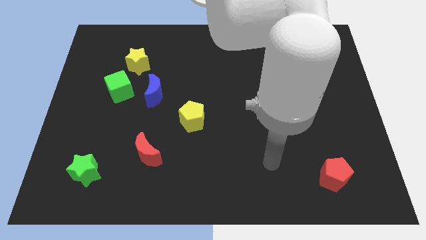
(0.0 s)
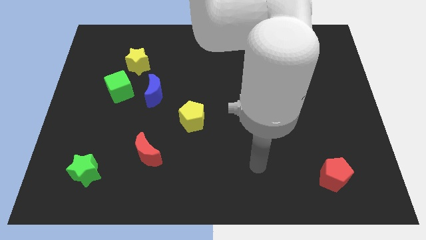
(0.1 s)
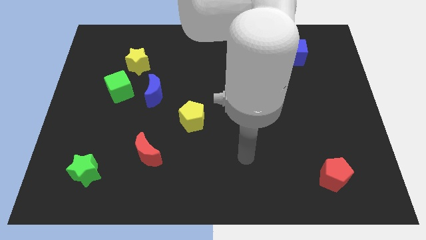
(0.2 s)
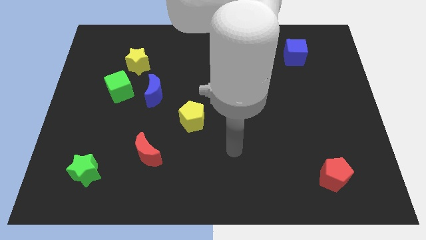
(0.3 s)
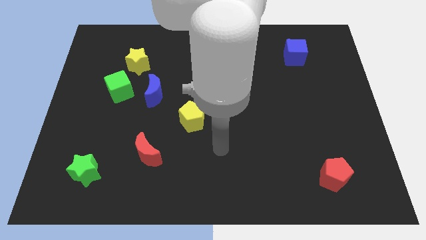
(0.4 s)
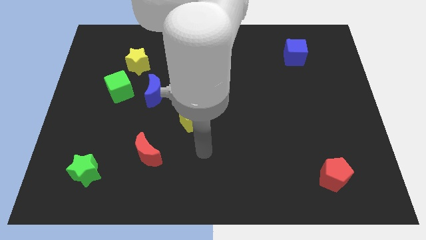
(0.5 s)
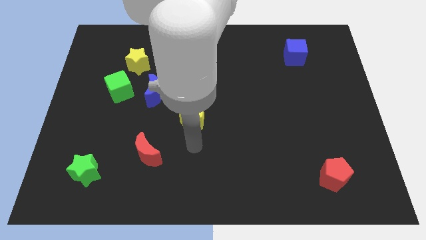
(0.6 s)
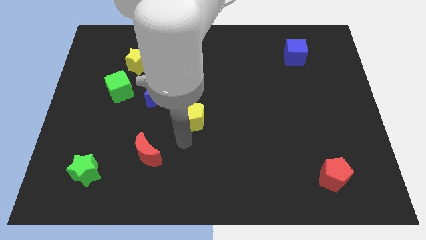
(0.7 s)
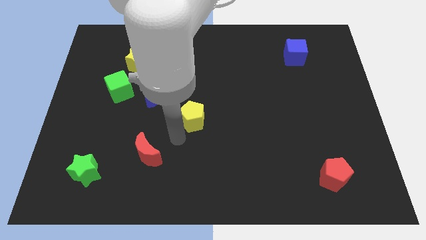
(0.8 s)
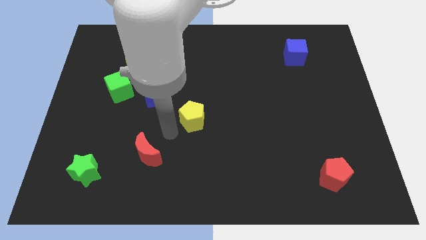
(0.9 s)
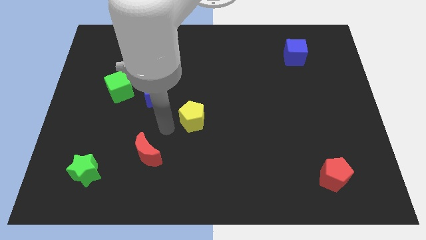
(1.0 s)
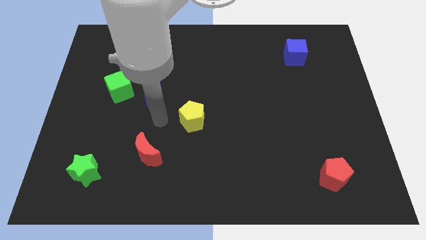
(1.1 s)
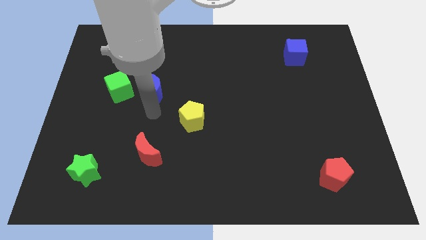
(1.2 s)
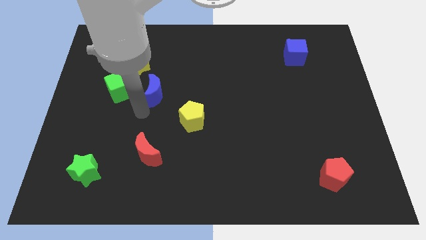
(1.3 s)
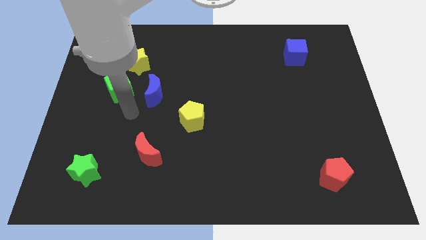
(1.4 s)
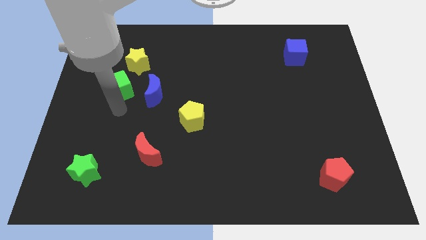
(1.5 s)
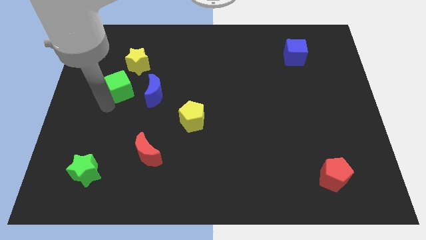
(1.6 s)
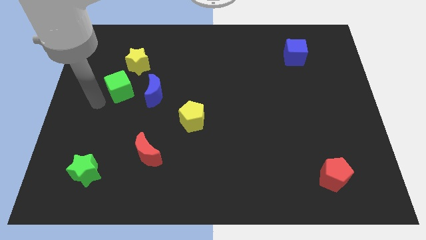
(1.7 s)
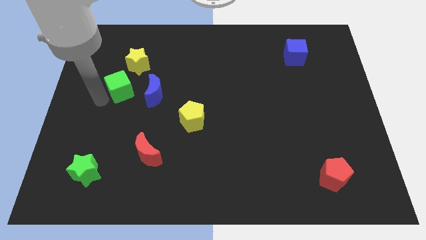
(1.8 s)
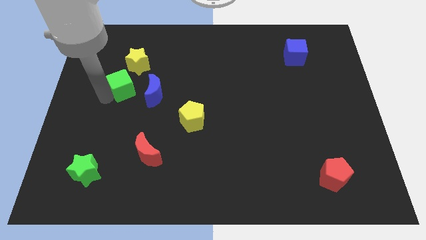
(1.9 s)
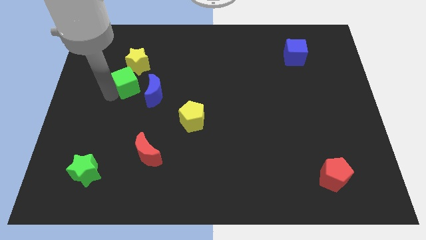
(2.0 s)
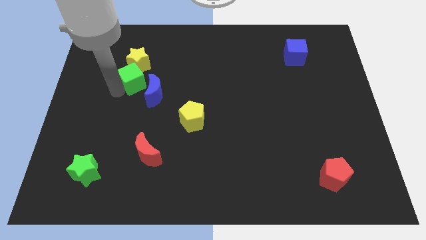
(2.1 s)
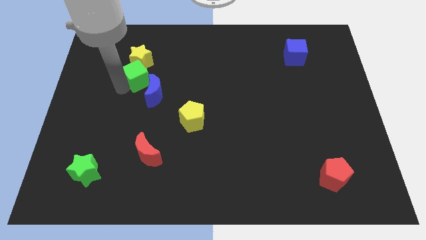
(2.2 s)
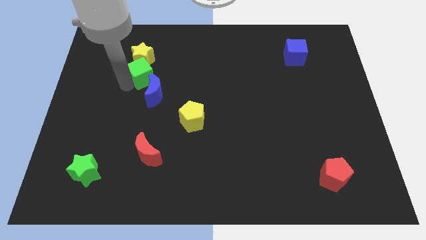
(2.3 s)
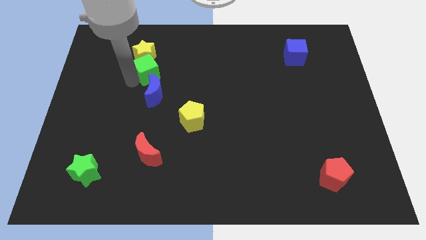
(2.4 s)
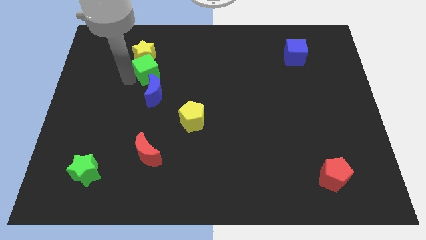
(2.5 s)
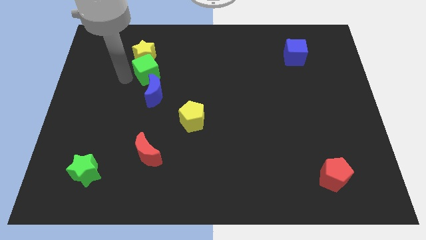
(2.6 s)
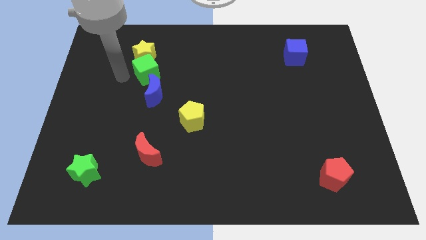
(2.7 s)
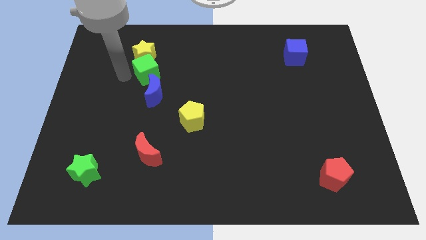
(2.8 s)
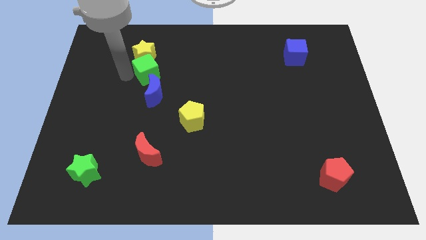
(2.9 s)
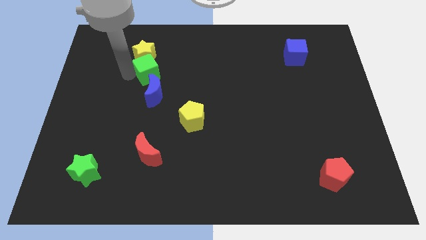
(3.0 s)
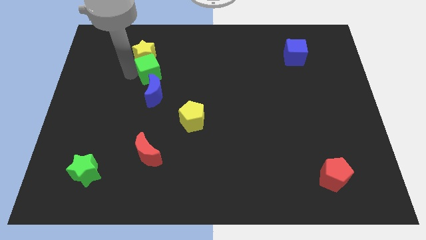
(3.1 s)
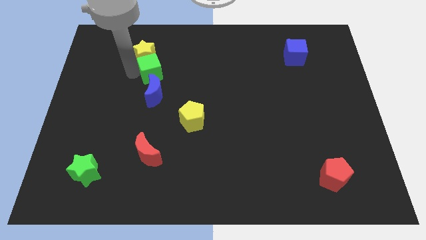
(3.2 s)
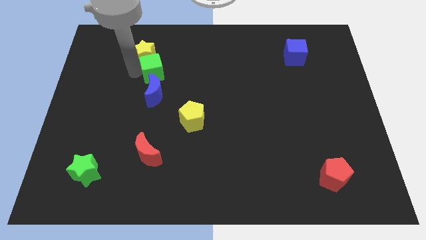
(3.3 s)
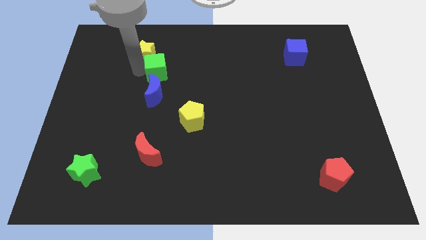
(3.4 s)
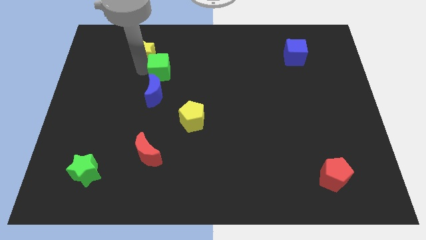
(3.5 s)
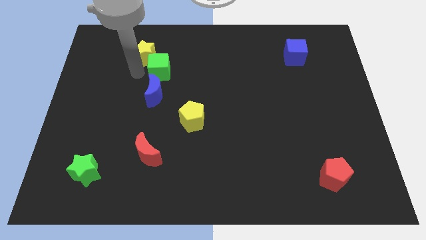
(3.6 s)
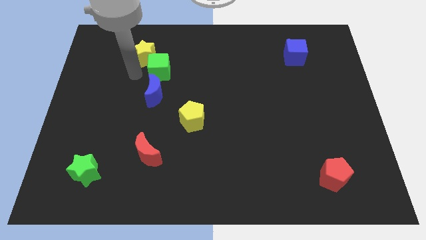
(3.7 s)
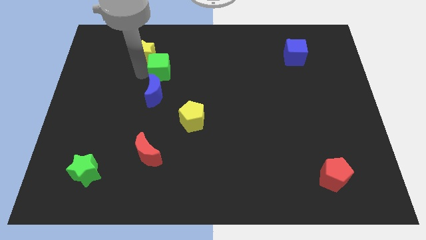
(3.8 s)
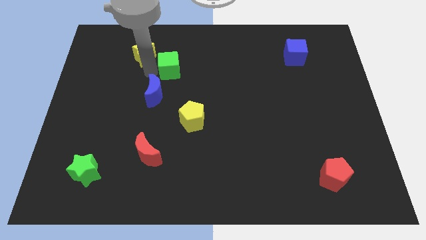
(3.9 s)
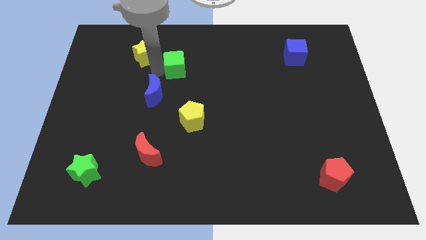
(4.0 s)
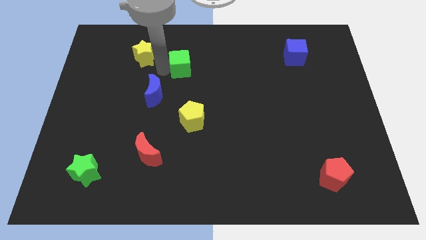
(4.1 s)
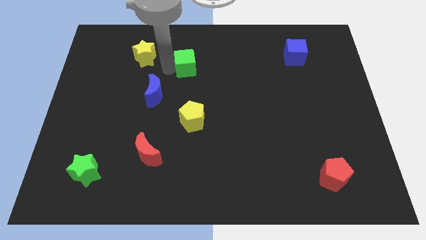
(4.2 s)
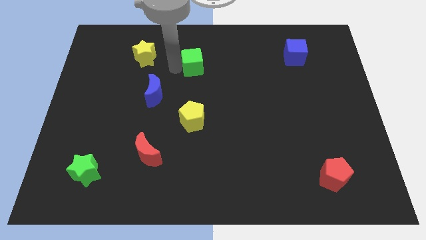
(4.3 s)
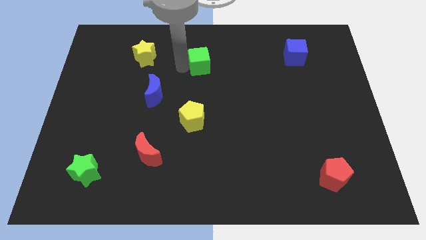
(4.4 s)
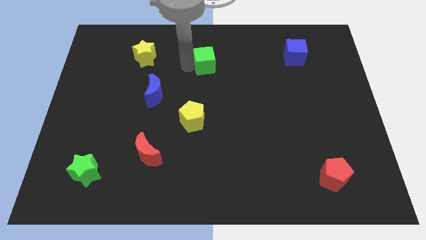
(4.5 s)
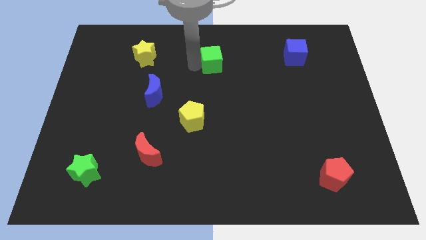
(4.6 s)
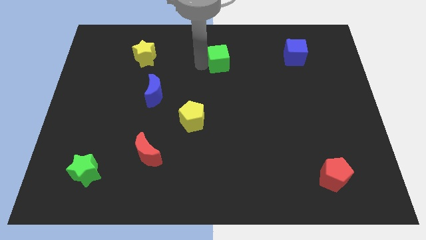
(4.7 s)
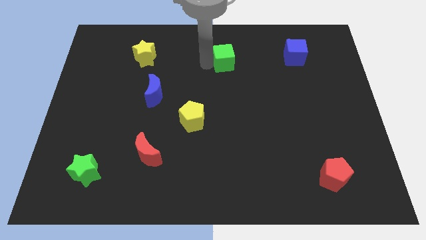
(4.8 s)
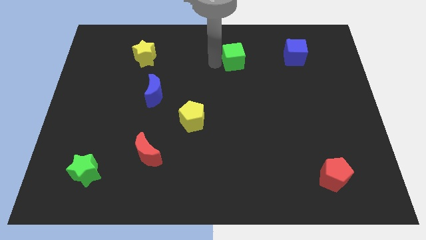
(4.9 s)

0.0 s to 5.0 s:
move the green cube to the left of the blue cube

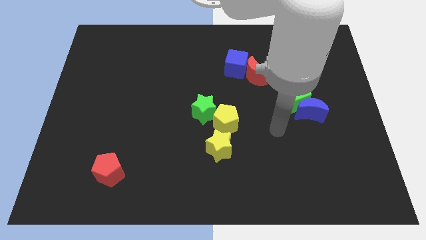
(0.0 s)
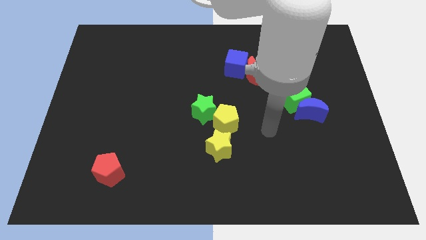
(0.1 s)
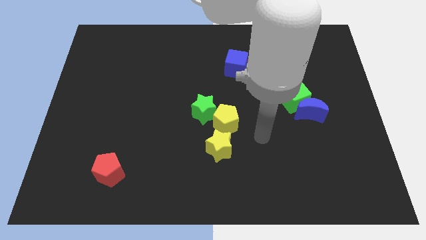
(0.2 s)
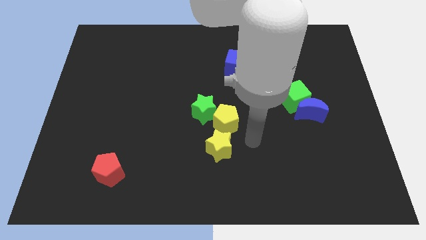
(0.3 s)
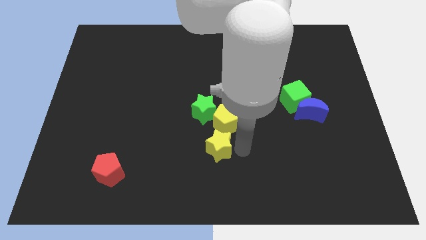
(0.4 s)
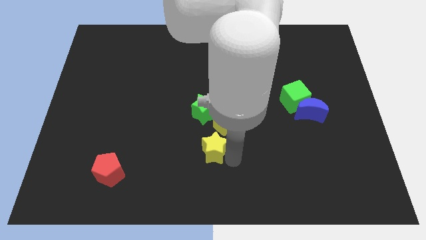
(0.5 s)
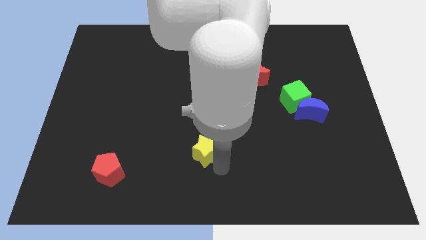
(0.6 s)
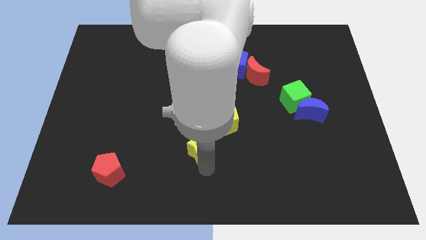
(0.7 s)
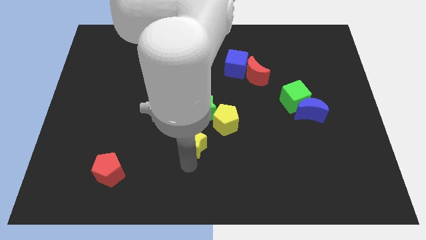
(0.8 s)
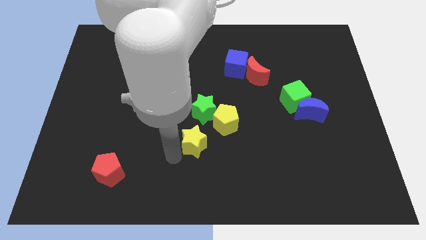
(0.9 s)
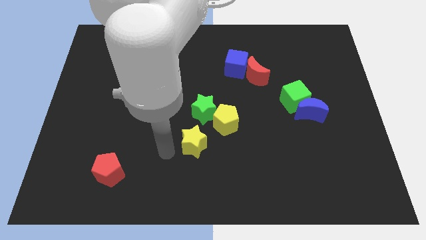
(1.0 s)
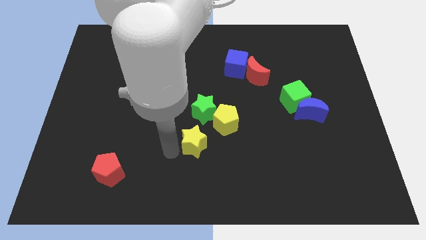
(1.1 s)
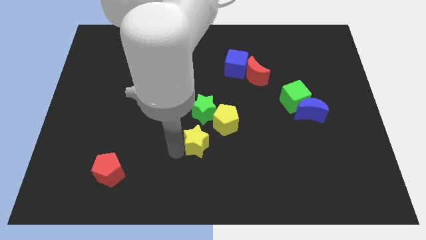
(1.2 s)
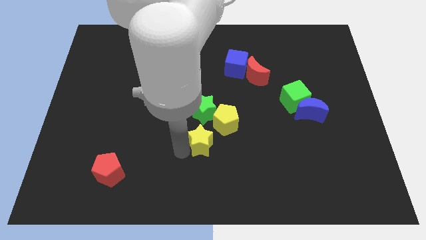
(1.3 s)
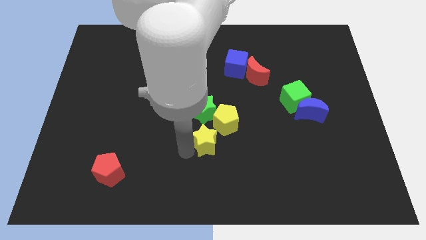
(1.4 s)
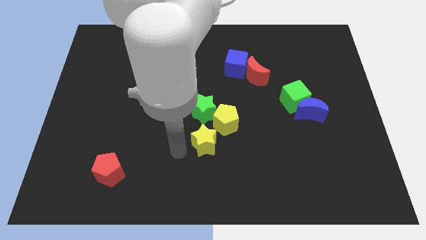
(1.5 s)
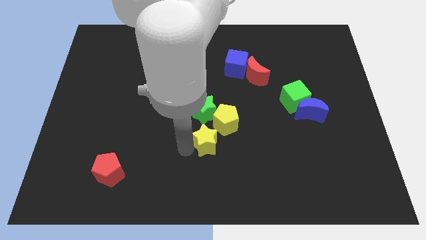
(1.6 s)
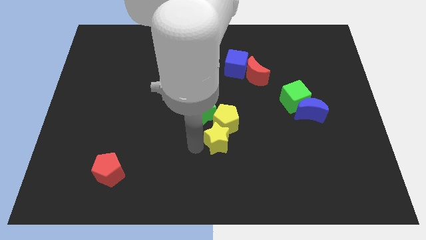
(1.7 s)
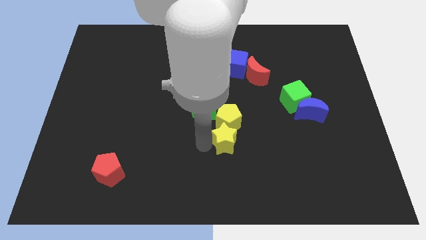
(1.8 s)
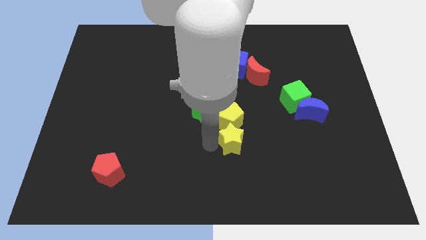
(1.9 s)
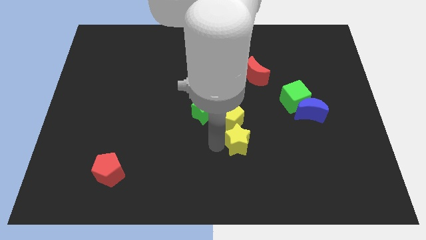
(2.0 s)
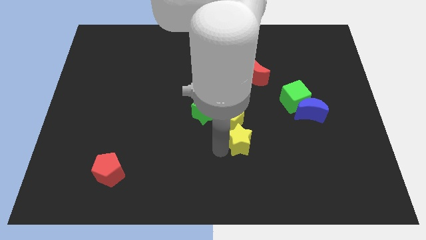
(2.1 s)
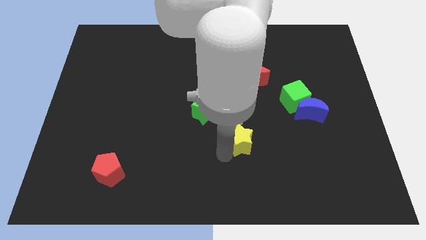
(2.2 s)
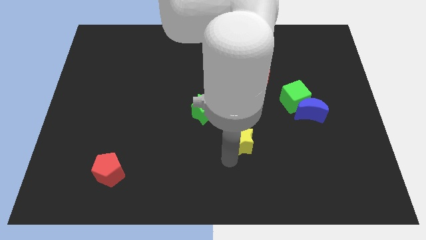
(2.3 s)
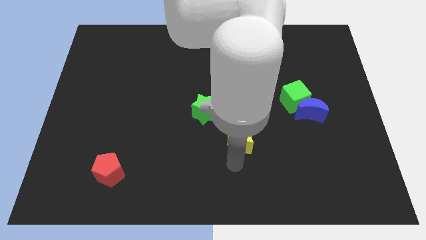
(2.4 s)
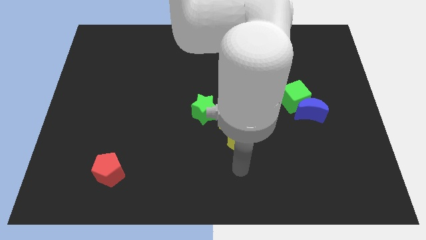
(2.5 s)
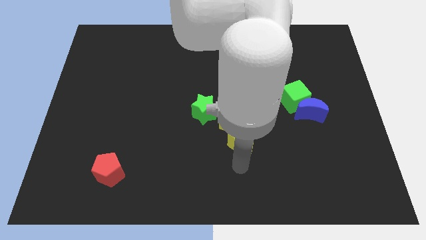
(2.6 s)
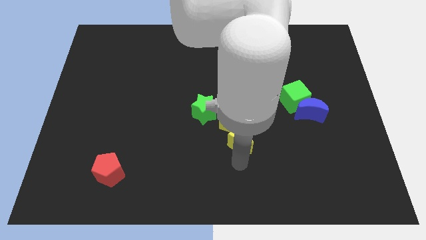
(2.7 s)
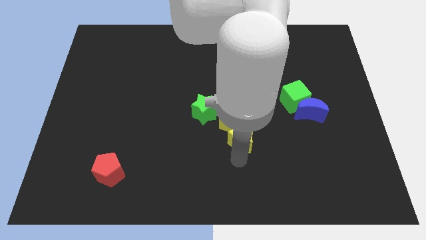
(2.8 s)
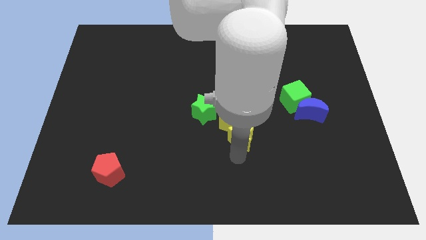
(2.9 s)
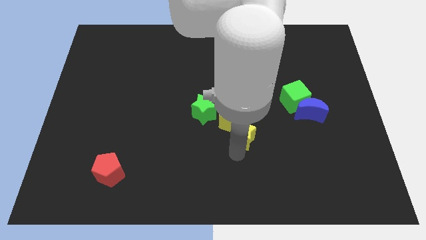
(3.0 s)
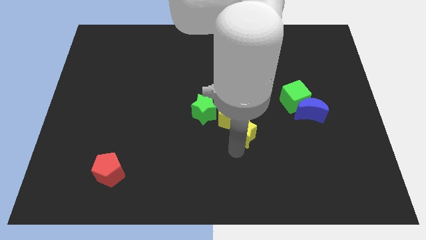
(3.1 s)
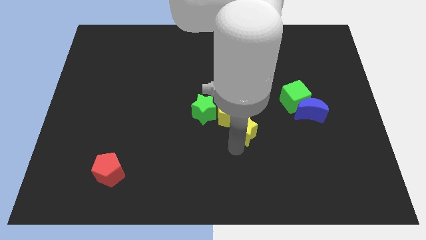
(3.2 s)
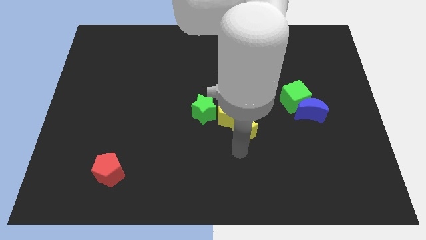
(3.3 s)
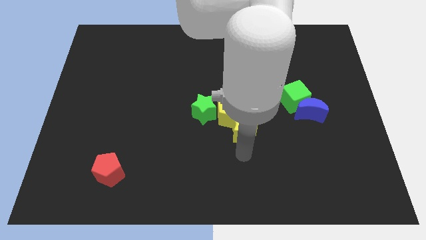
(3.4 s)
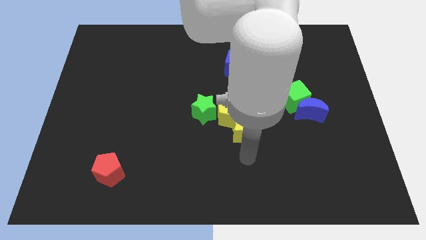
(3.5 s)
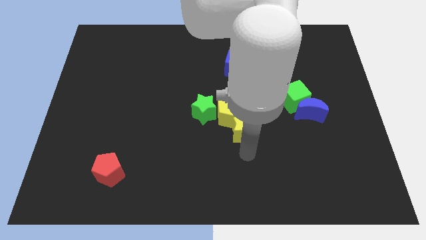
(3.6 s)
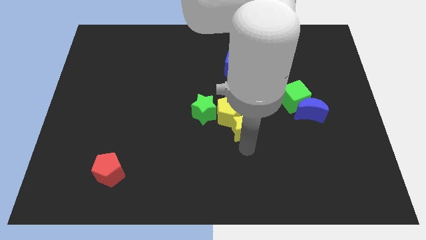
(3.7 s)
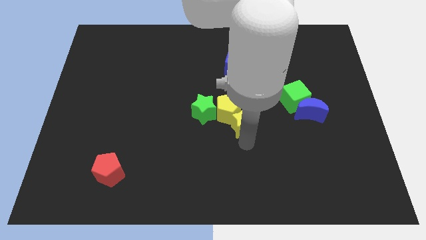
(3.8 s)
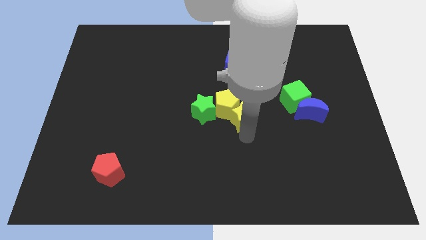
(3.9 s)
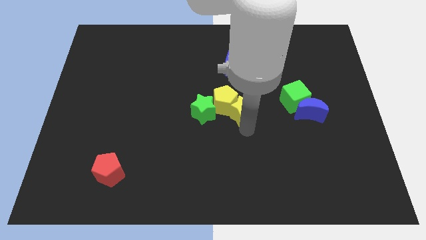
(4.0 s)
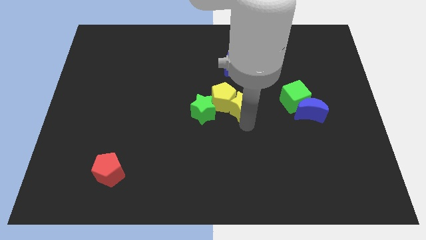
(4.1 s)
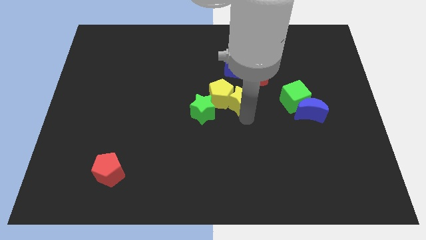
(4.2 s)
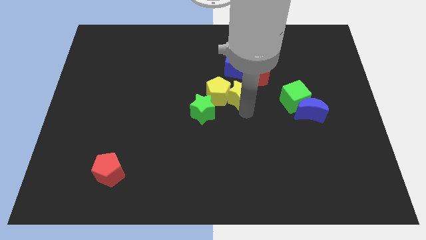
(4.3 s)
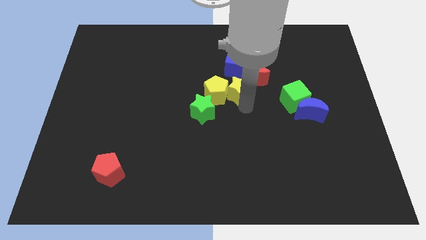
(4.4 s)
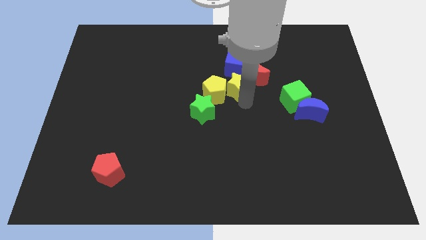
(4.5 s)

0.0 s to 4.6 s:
put the yellow star left of the red moon
